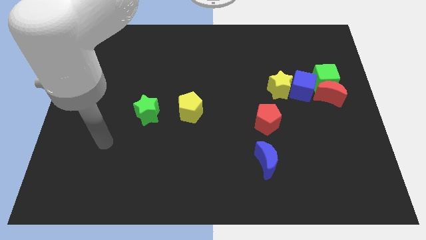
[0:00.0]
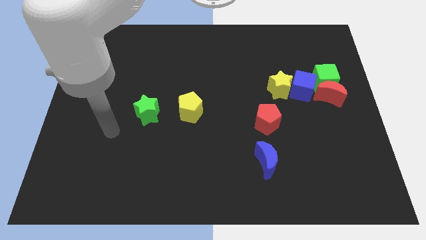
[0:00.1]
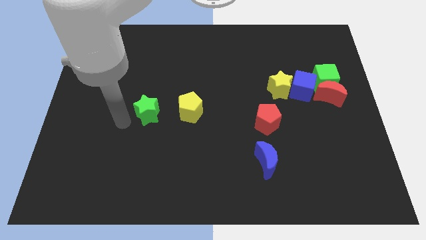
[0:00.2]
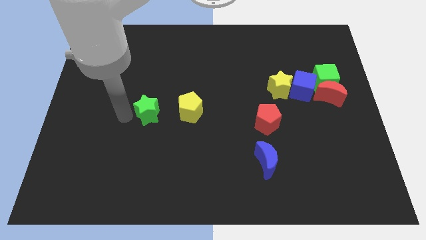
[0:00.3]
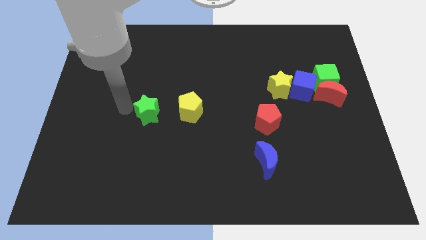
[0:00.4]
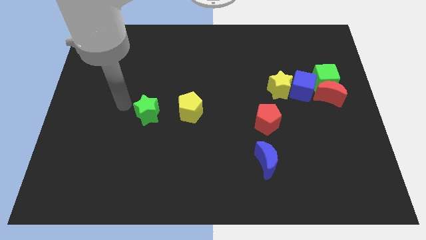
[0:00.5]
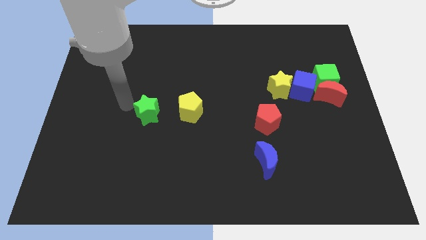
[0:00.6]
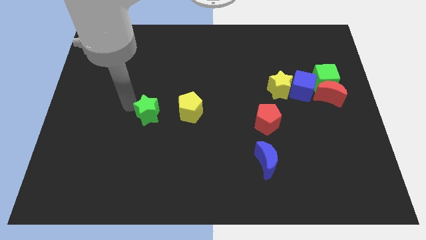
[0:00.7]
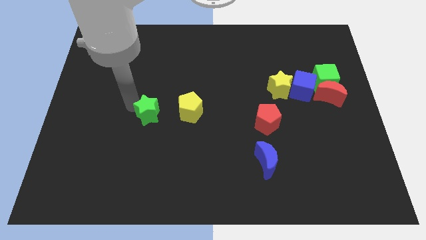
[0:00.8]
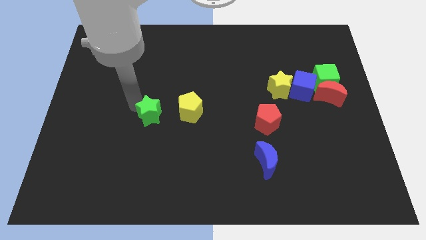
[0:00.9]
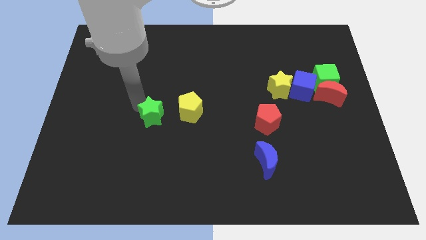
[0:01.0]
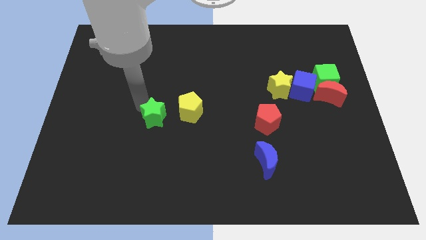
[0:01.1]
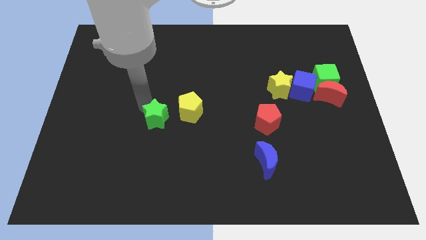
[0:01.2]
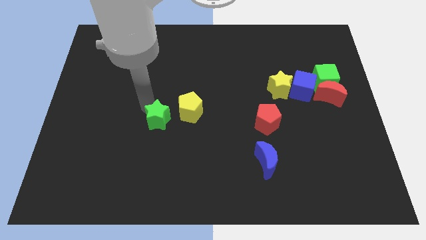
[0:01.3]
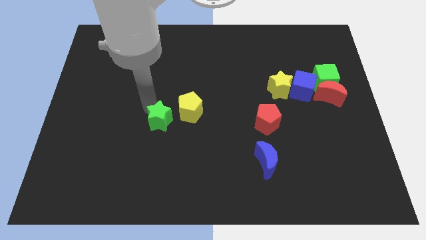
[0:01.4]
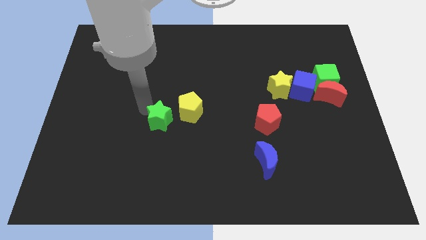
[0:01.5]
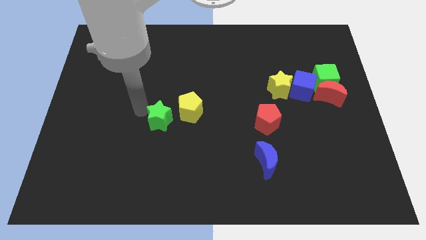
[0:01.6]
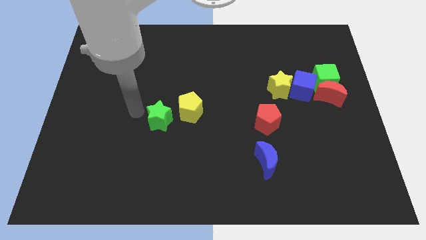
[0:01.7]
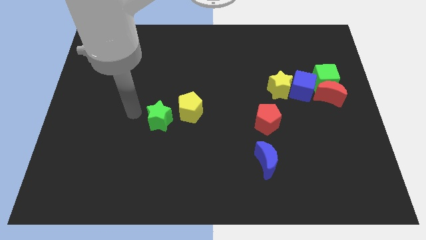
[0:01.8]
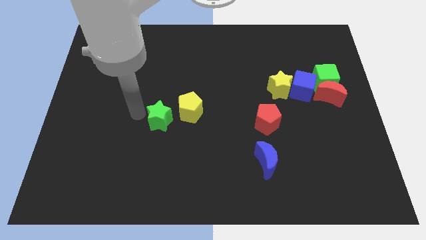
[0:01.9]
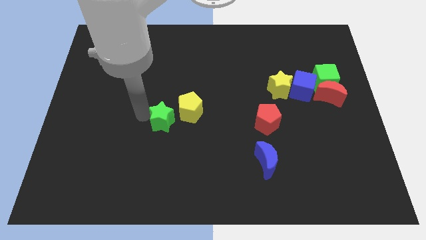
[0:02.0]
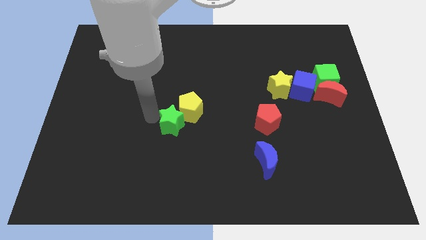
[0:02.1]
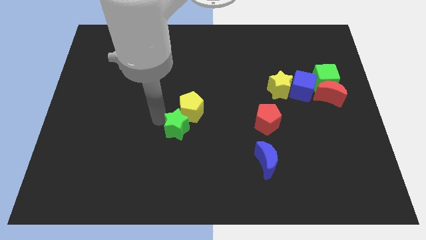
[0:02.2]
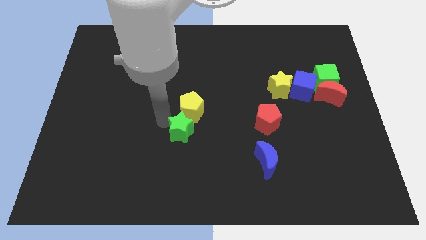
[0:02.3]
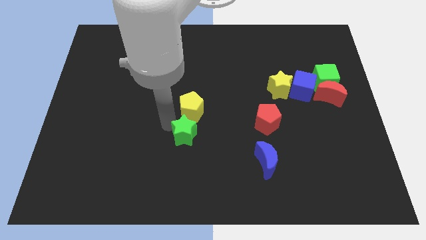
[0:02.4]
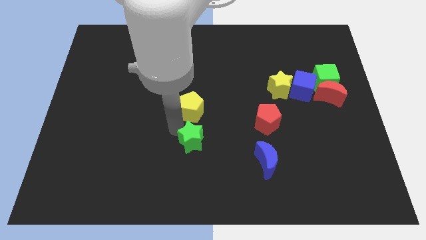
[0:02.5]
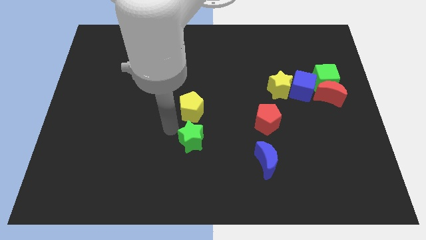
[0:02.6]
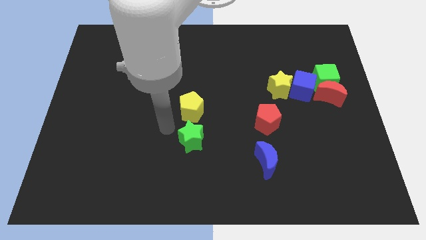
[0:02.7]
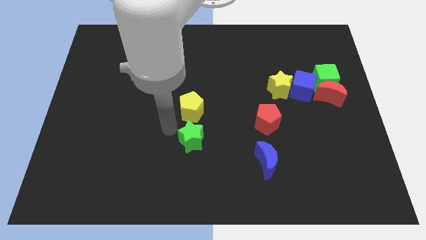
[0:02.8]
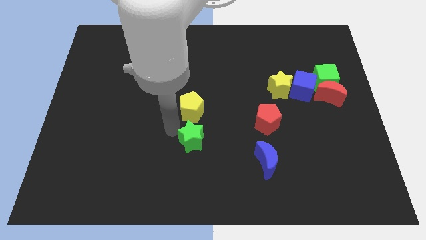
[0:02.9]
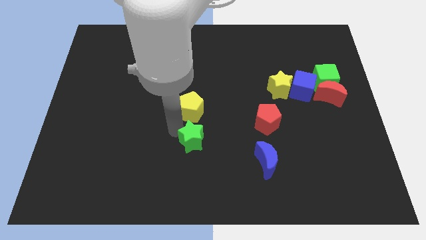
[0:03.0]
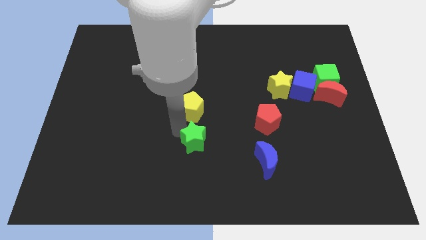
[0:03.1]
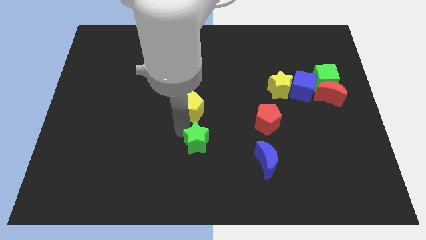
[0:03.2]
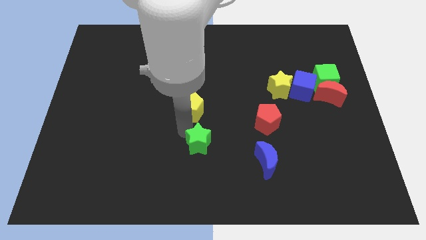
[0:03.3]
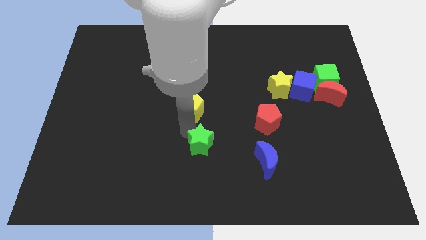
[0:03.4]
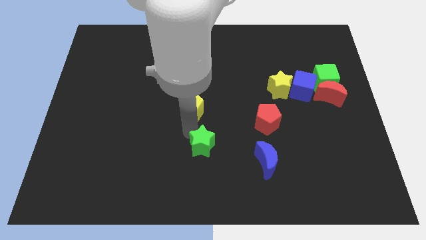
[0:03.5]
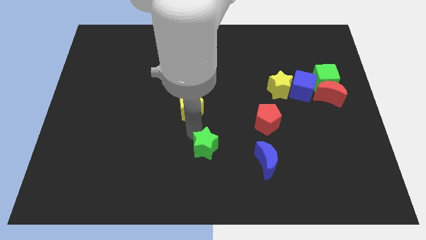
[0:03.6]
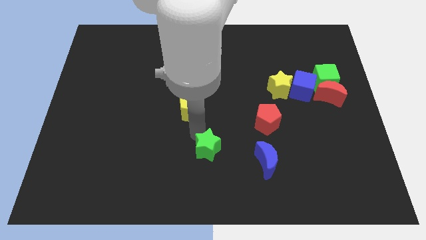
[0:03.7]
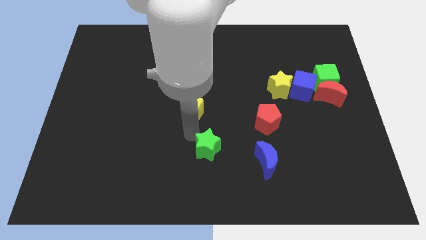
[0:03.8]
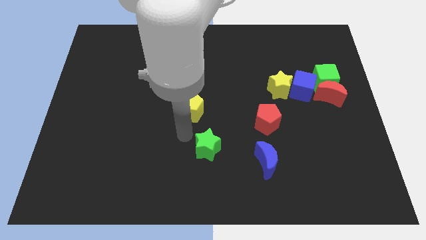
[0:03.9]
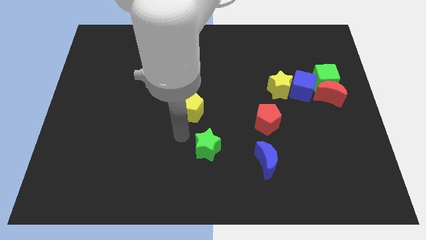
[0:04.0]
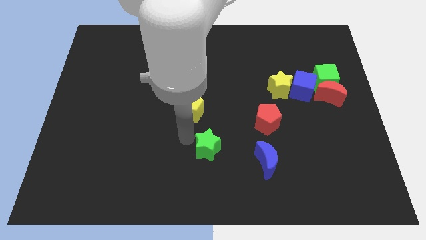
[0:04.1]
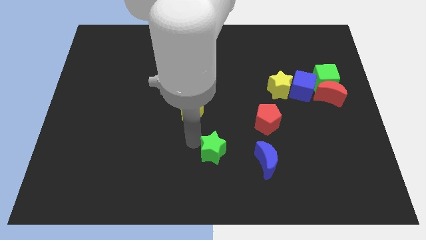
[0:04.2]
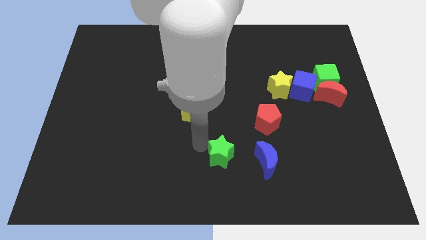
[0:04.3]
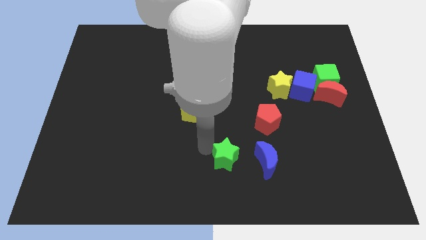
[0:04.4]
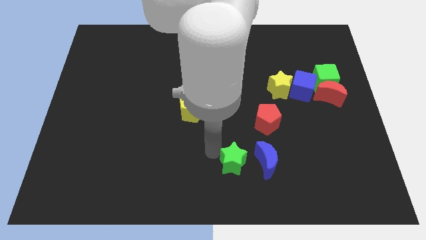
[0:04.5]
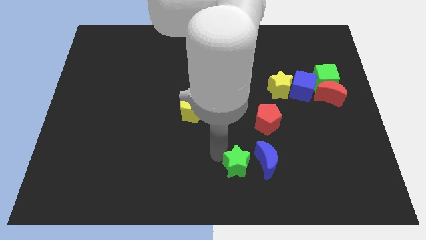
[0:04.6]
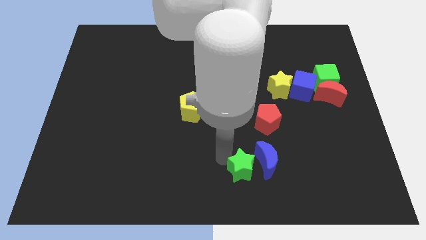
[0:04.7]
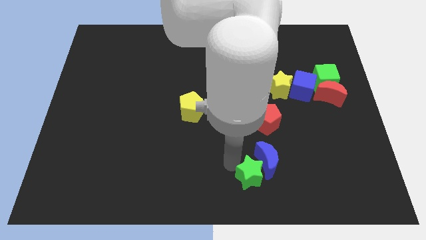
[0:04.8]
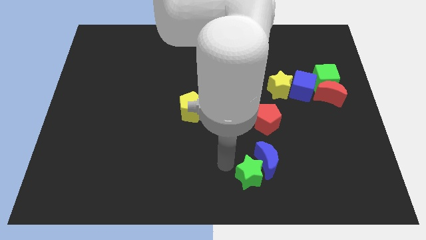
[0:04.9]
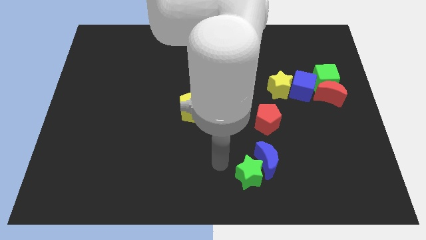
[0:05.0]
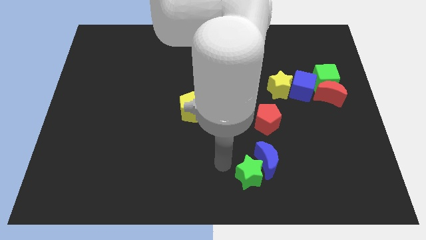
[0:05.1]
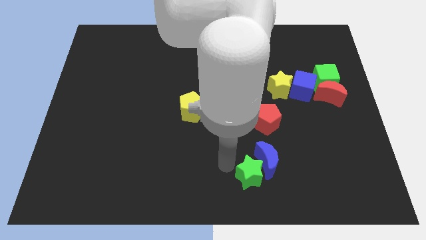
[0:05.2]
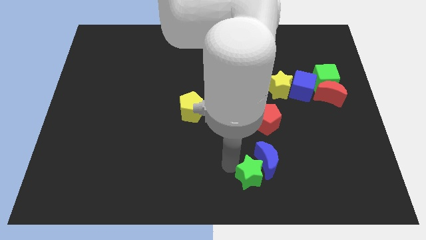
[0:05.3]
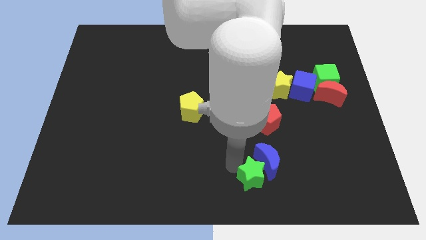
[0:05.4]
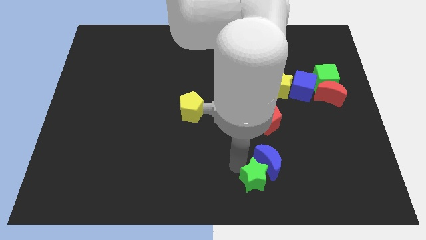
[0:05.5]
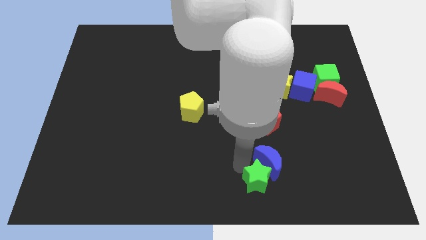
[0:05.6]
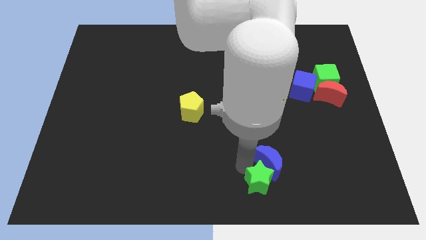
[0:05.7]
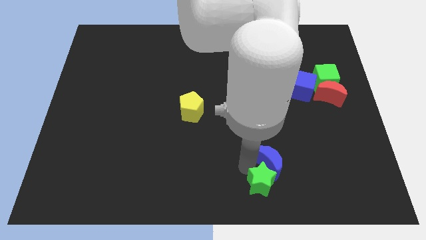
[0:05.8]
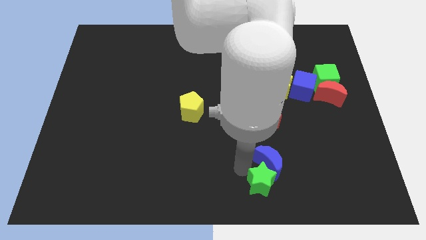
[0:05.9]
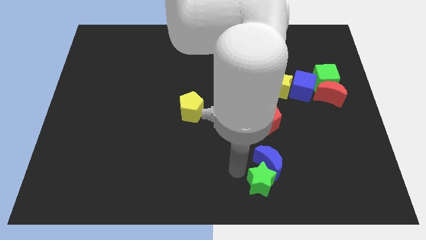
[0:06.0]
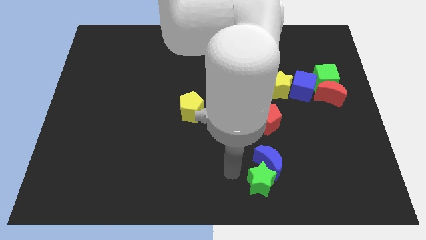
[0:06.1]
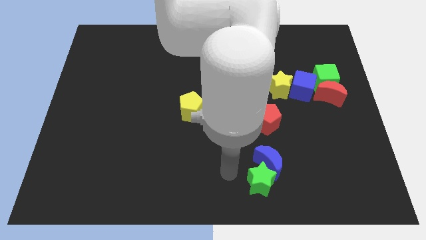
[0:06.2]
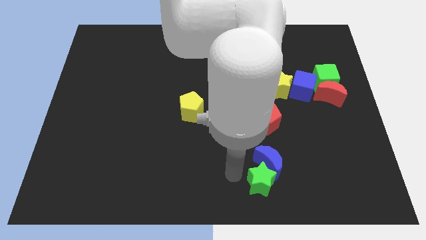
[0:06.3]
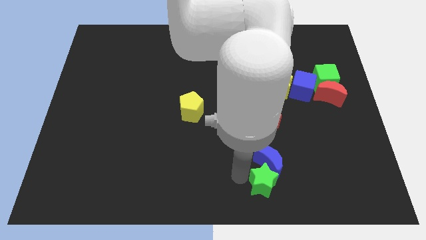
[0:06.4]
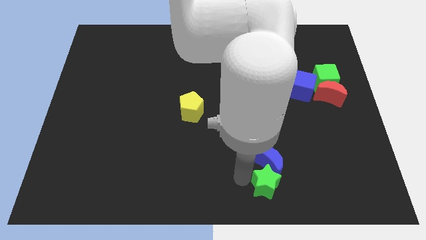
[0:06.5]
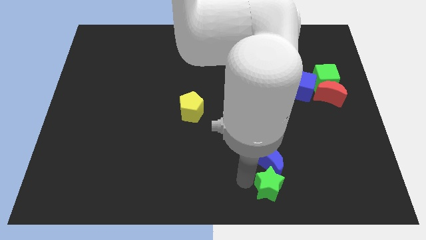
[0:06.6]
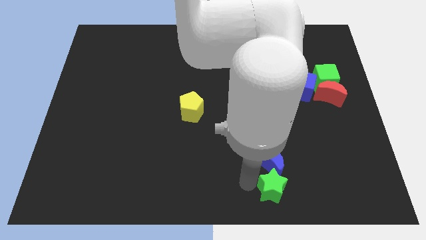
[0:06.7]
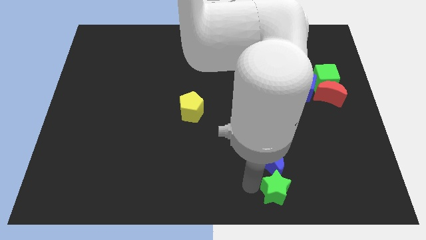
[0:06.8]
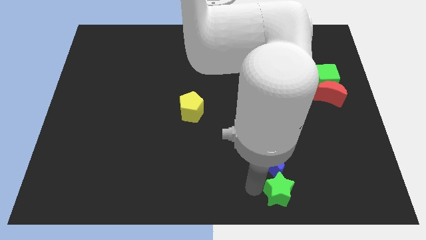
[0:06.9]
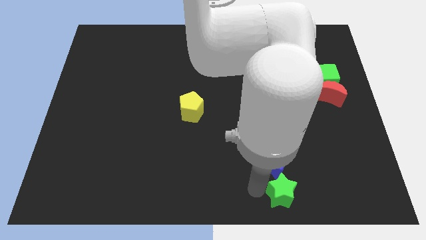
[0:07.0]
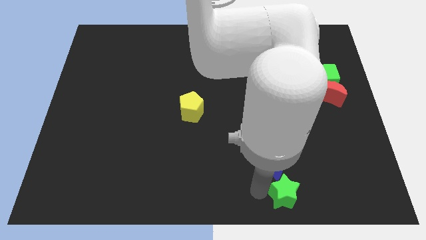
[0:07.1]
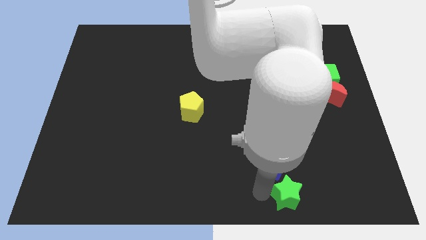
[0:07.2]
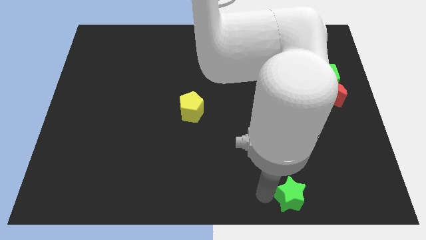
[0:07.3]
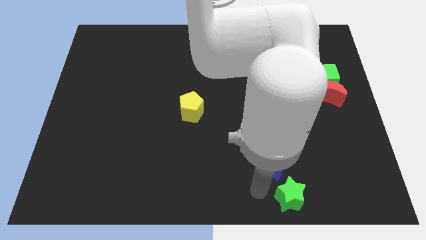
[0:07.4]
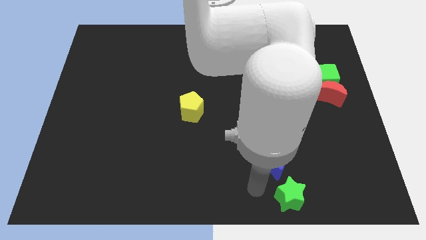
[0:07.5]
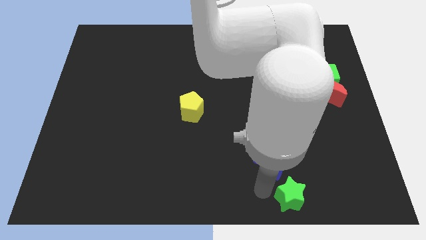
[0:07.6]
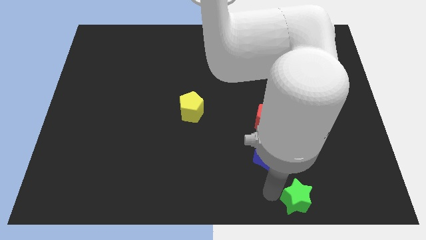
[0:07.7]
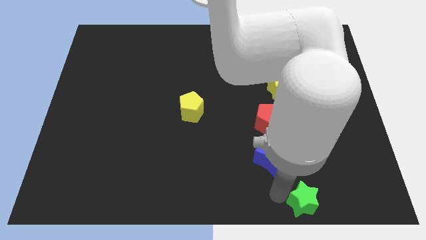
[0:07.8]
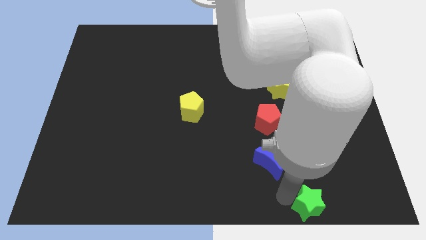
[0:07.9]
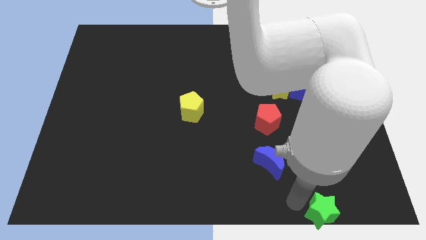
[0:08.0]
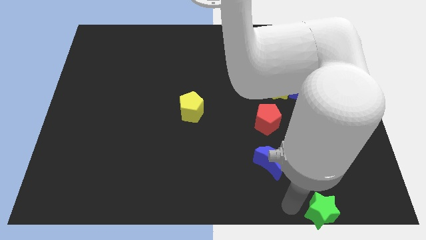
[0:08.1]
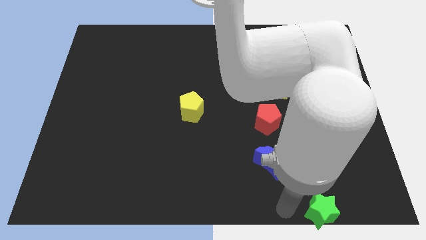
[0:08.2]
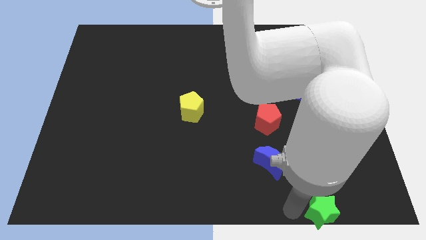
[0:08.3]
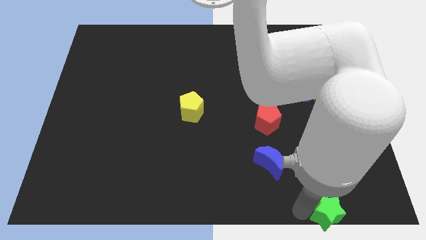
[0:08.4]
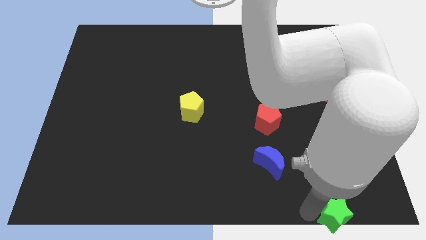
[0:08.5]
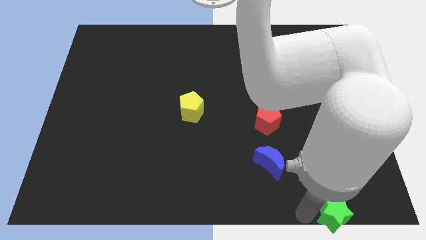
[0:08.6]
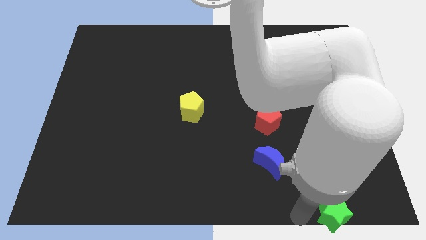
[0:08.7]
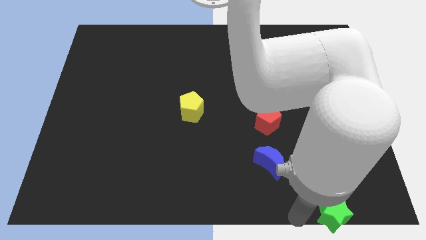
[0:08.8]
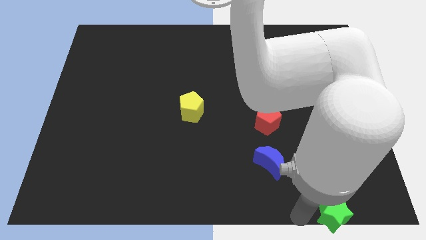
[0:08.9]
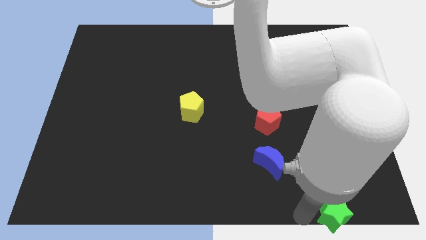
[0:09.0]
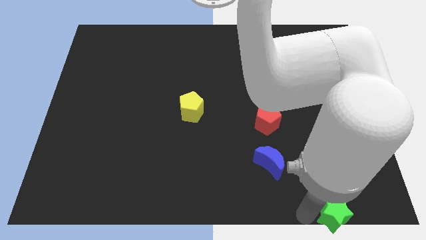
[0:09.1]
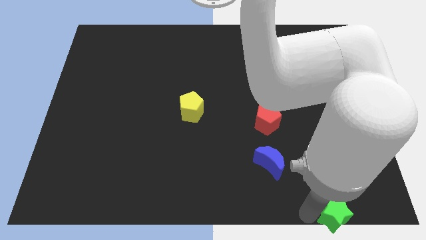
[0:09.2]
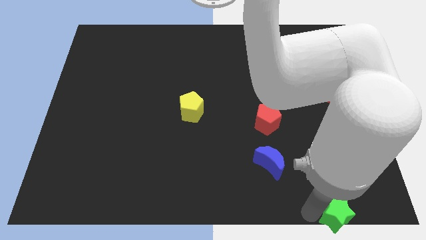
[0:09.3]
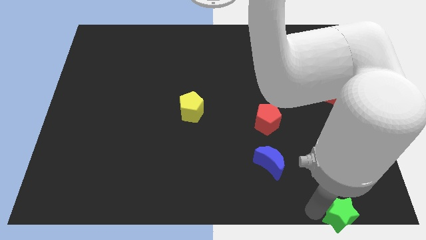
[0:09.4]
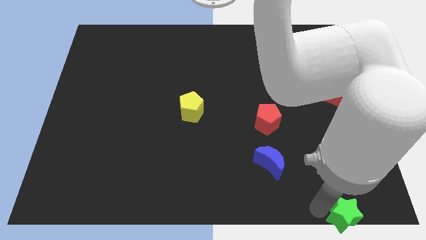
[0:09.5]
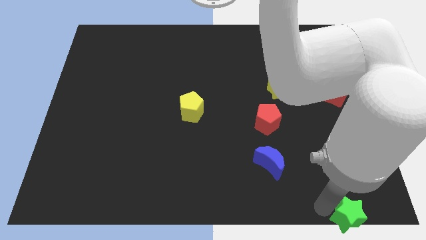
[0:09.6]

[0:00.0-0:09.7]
move the green star to the lower right corner
